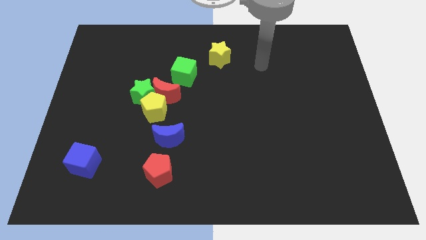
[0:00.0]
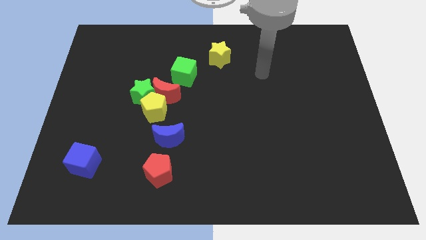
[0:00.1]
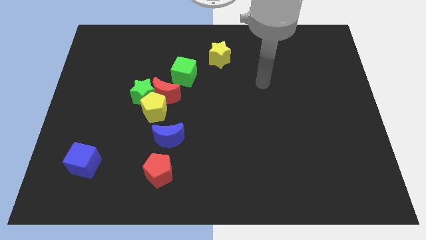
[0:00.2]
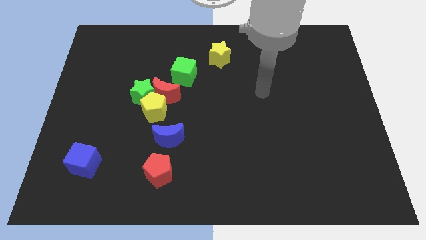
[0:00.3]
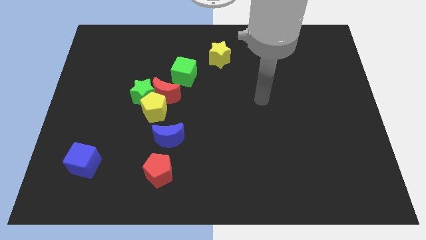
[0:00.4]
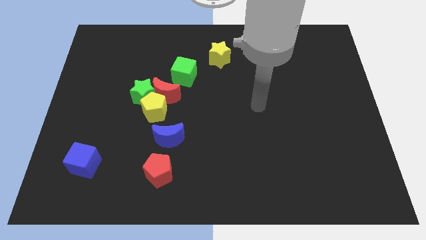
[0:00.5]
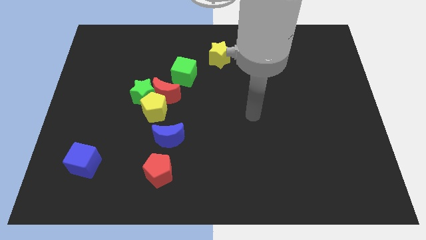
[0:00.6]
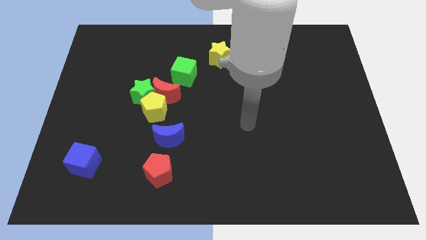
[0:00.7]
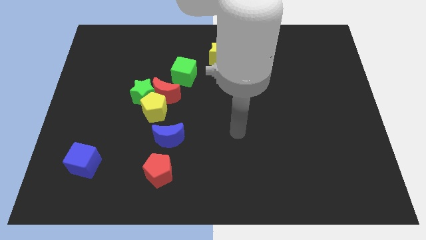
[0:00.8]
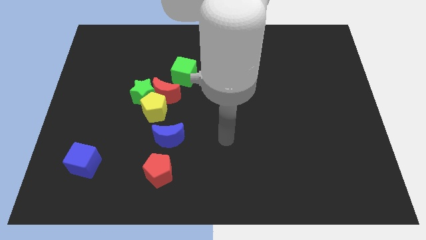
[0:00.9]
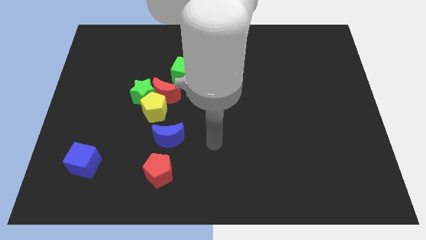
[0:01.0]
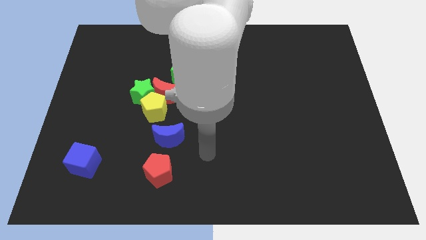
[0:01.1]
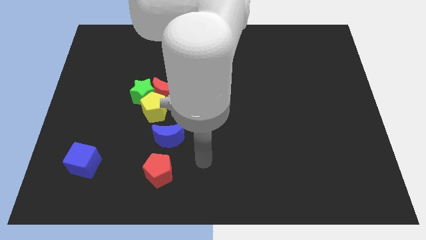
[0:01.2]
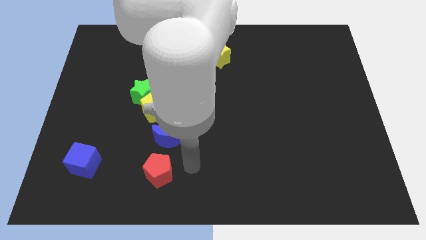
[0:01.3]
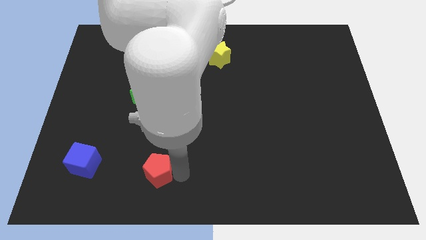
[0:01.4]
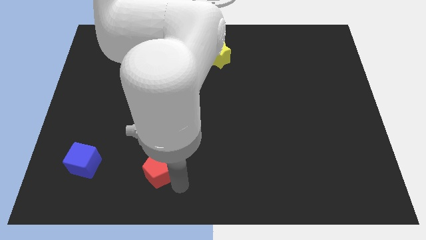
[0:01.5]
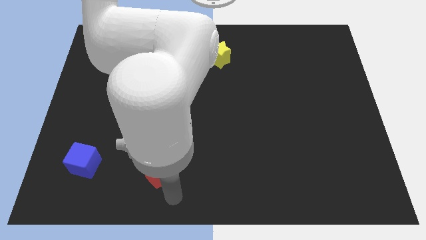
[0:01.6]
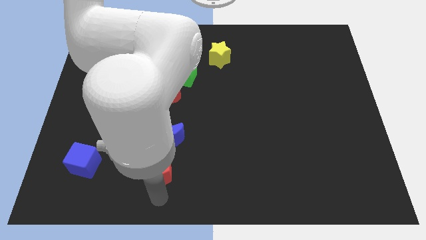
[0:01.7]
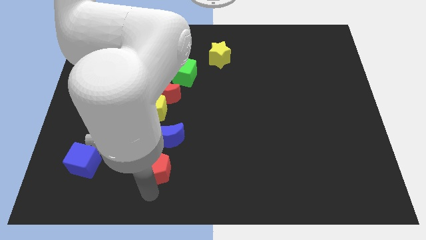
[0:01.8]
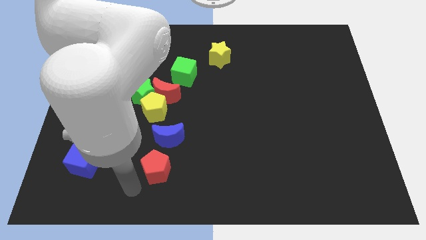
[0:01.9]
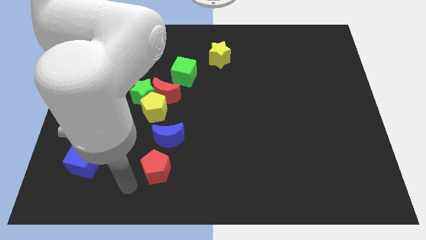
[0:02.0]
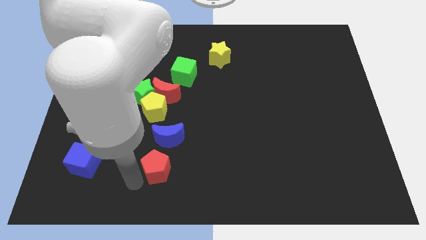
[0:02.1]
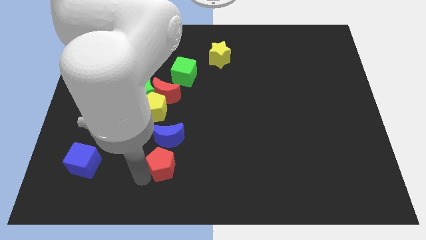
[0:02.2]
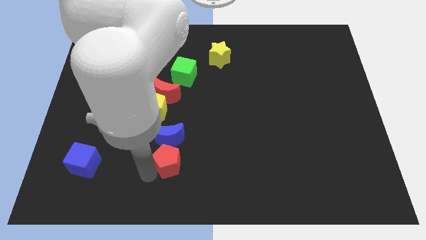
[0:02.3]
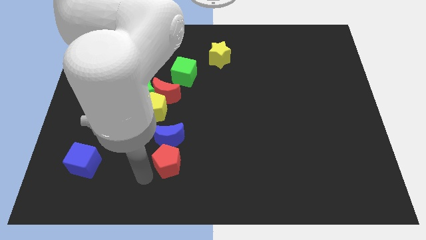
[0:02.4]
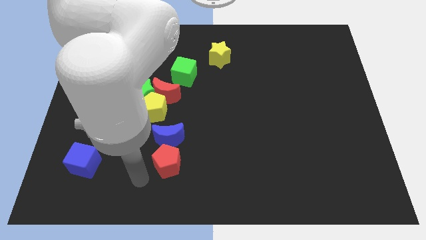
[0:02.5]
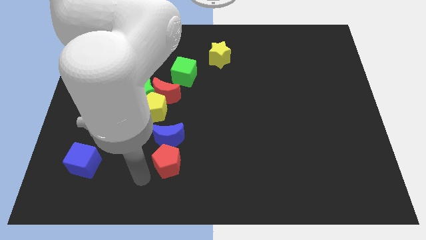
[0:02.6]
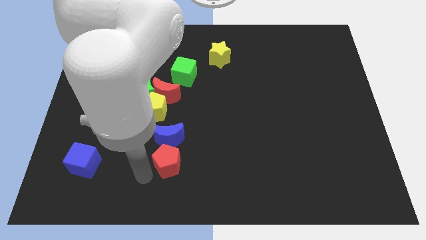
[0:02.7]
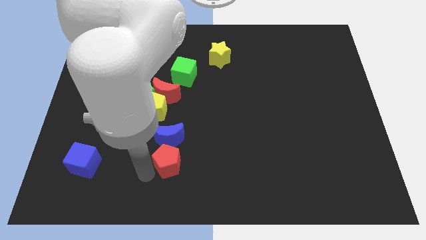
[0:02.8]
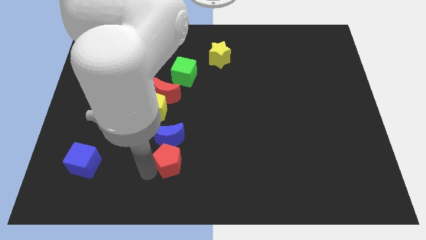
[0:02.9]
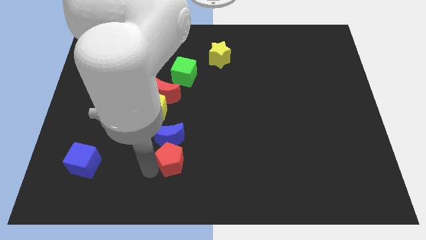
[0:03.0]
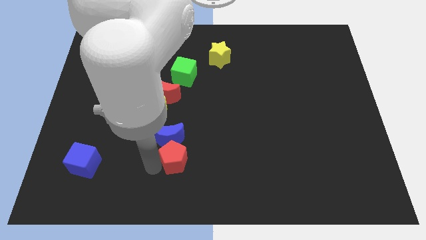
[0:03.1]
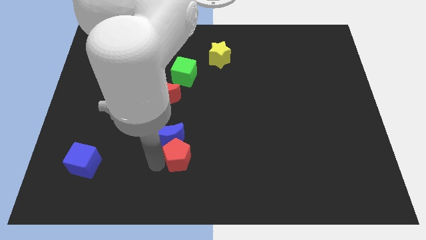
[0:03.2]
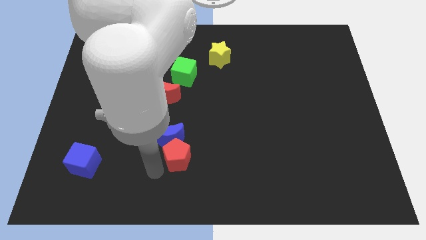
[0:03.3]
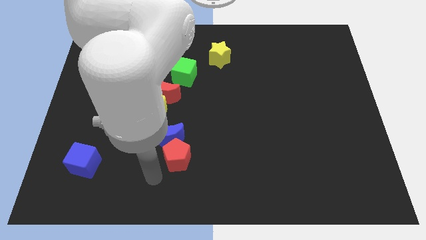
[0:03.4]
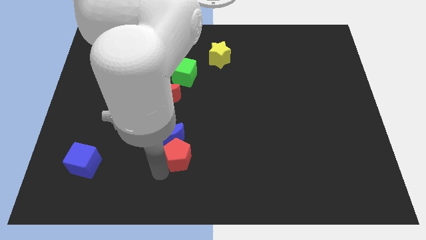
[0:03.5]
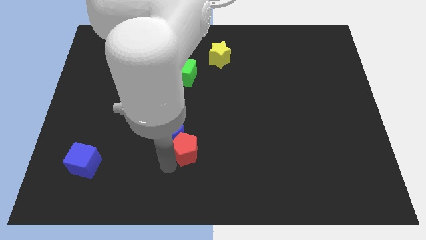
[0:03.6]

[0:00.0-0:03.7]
slightly push the red pentagon upwards and then to the right

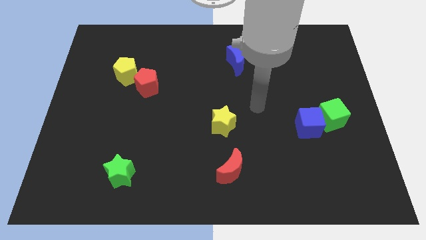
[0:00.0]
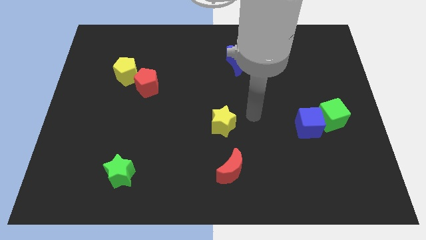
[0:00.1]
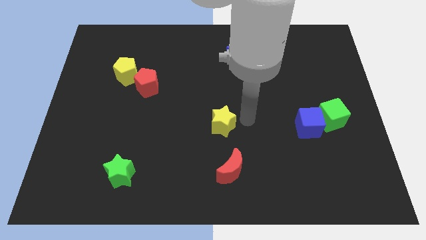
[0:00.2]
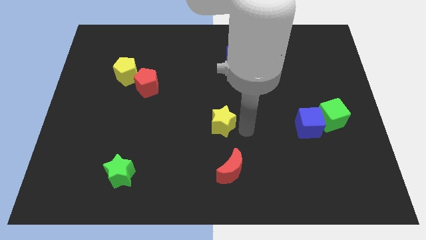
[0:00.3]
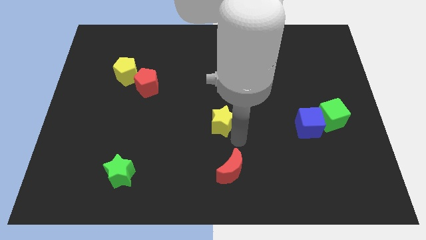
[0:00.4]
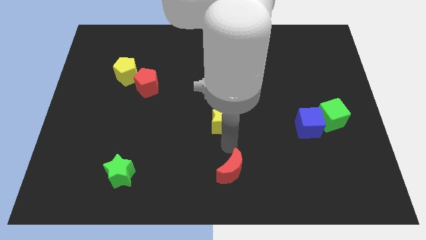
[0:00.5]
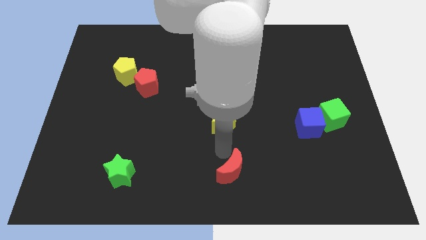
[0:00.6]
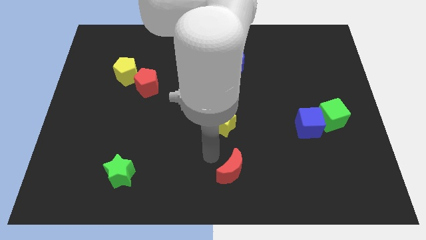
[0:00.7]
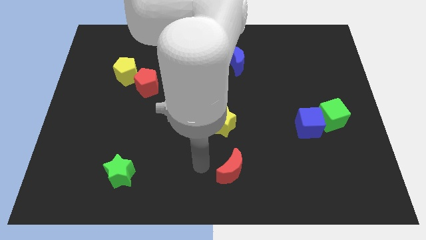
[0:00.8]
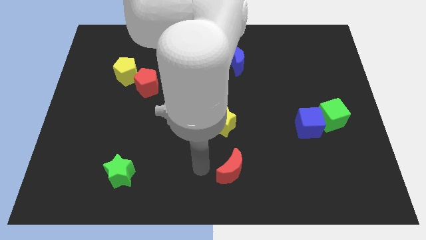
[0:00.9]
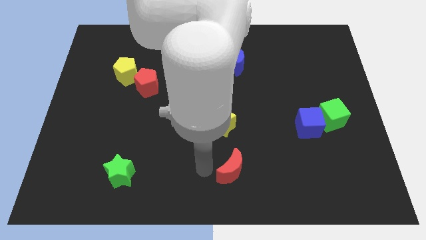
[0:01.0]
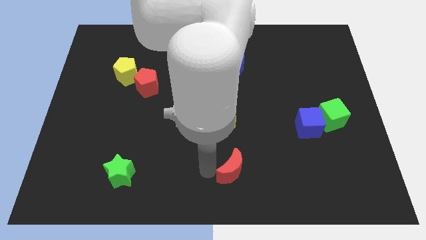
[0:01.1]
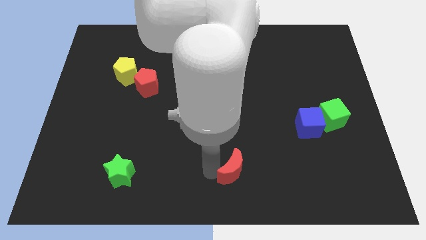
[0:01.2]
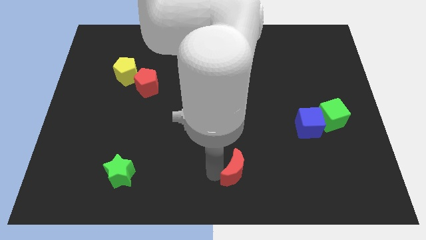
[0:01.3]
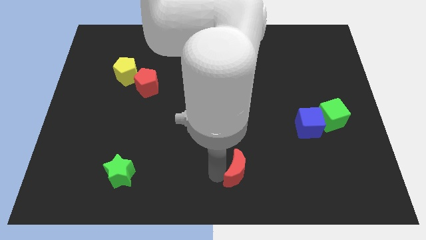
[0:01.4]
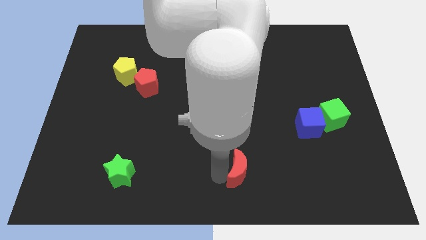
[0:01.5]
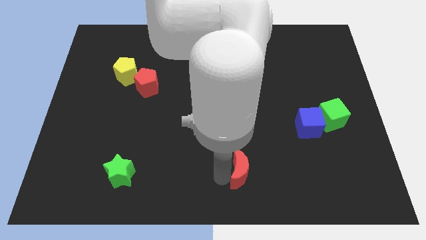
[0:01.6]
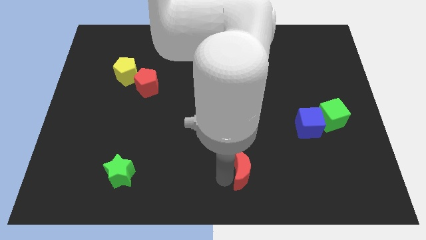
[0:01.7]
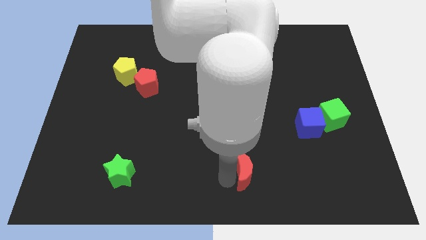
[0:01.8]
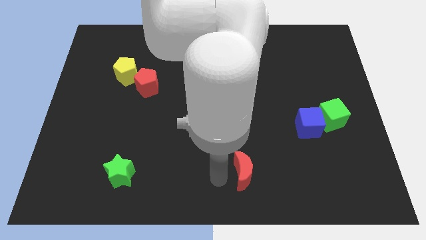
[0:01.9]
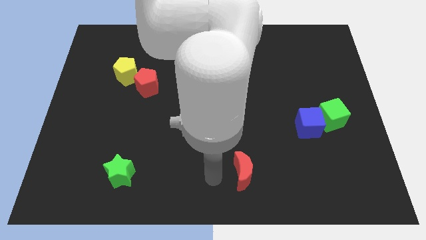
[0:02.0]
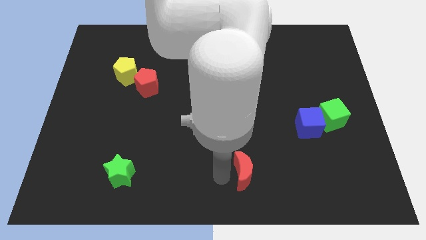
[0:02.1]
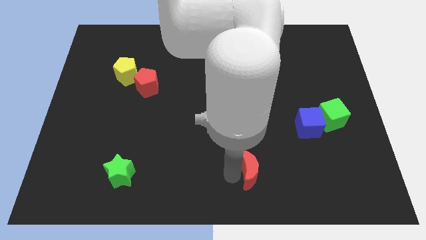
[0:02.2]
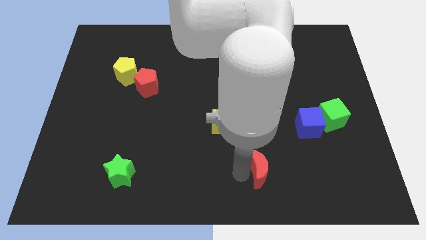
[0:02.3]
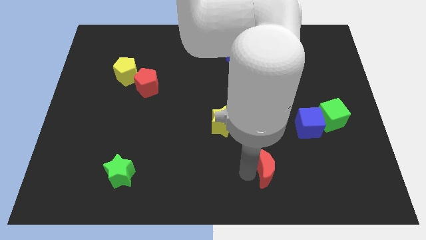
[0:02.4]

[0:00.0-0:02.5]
push the red moon right a bit

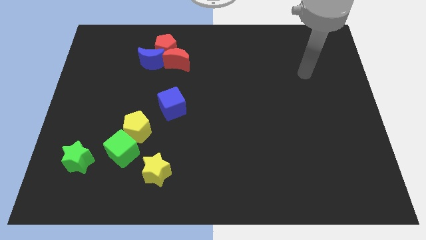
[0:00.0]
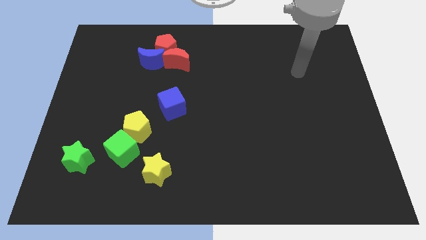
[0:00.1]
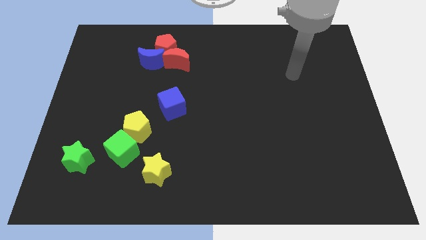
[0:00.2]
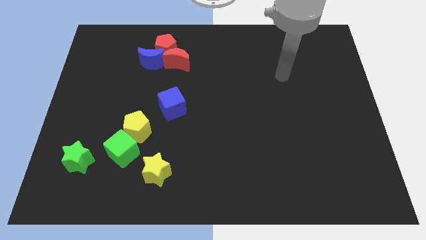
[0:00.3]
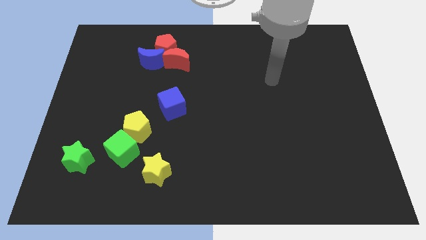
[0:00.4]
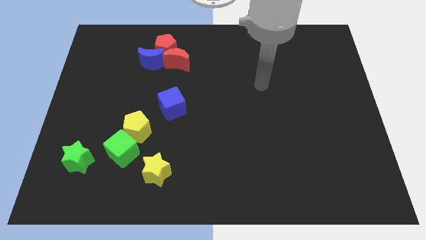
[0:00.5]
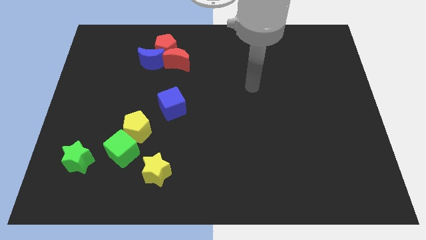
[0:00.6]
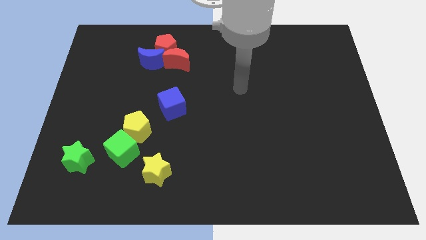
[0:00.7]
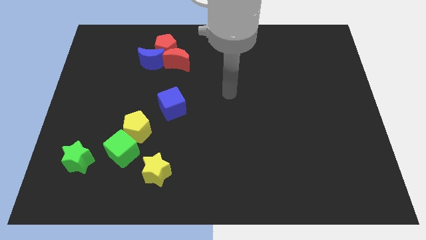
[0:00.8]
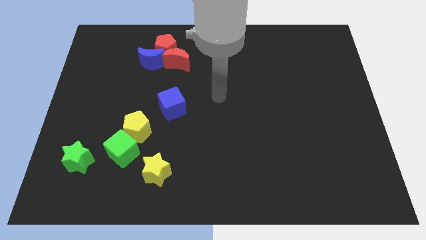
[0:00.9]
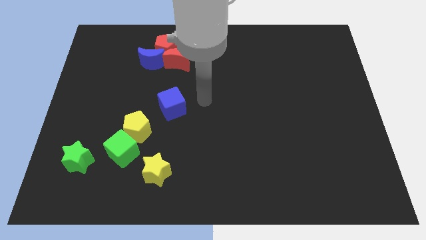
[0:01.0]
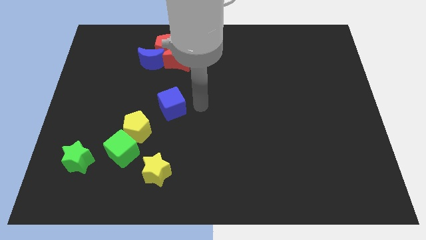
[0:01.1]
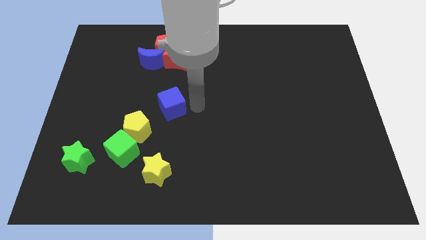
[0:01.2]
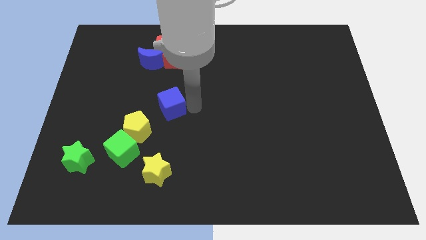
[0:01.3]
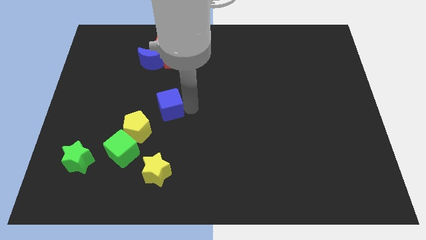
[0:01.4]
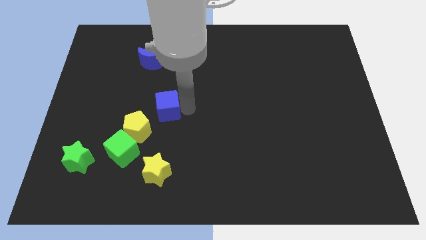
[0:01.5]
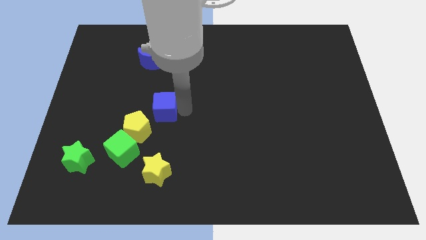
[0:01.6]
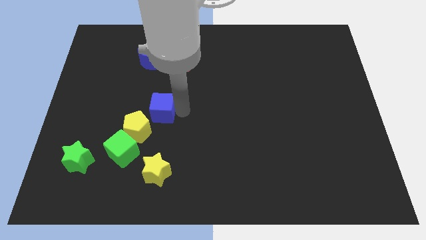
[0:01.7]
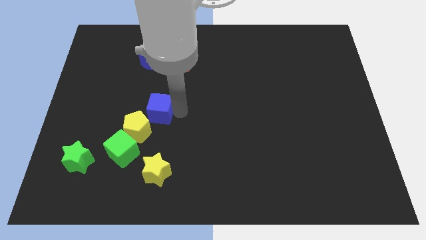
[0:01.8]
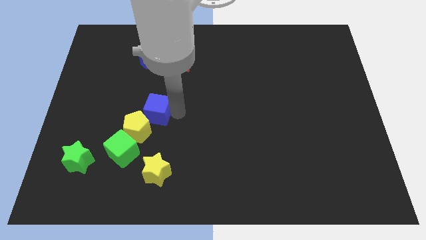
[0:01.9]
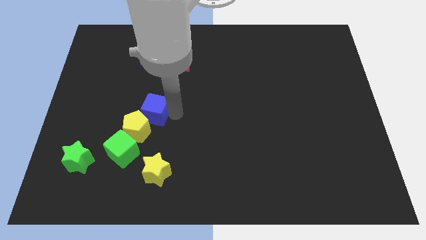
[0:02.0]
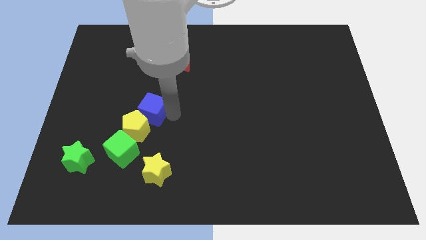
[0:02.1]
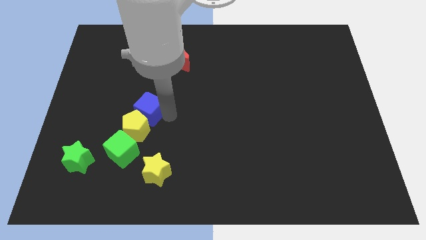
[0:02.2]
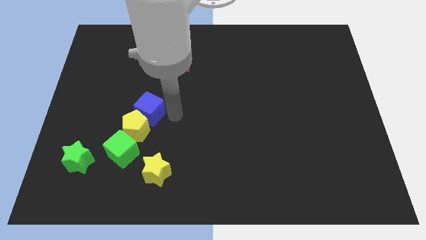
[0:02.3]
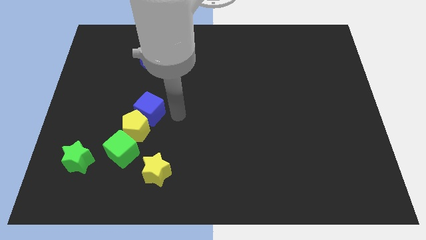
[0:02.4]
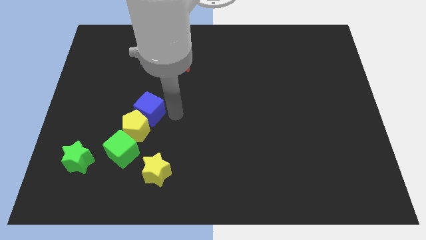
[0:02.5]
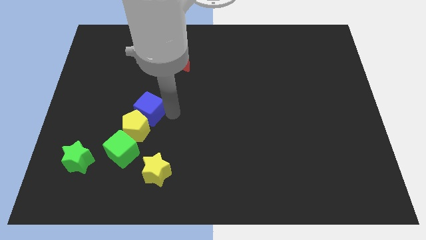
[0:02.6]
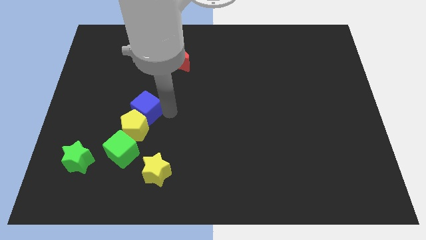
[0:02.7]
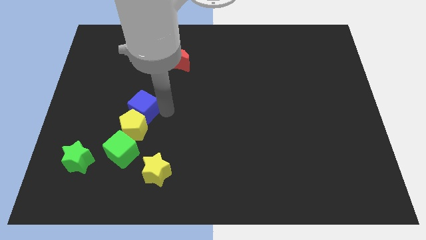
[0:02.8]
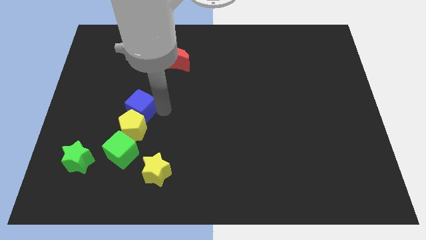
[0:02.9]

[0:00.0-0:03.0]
move the blue cube a little left
